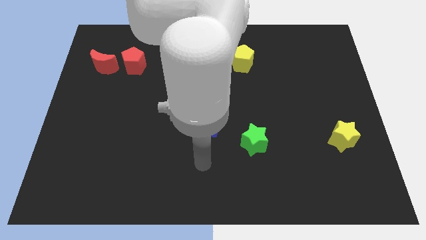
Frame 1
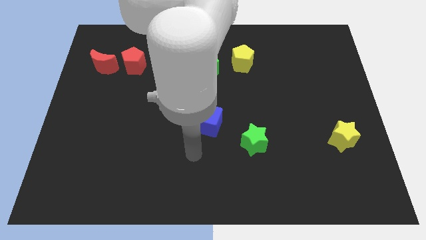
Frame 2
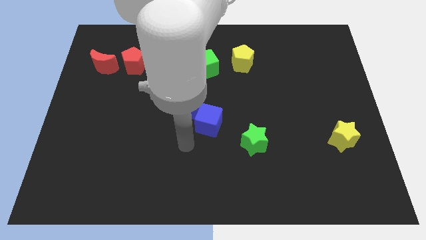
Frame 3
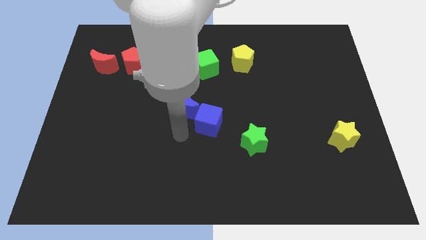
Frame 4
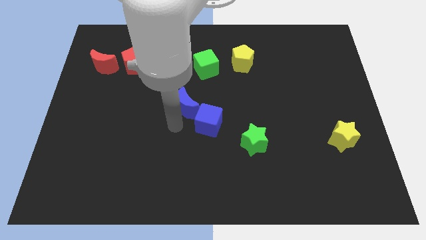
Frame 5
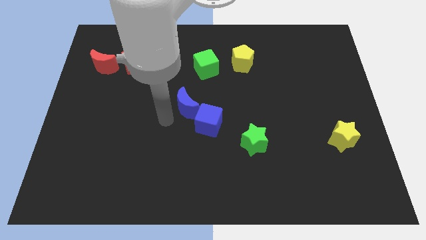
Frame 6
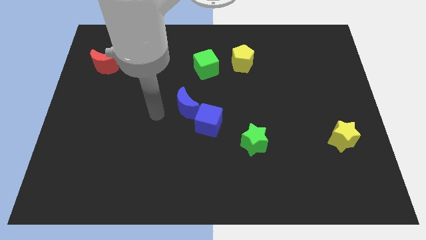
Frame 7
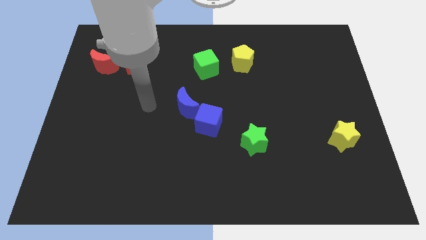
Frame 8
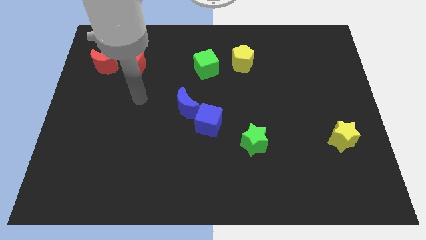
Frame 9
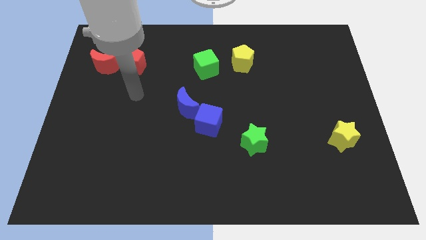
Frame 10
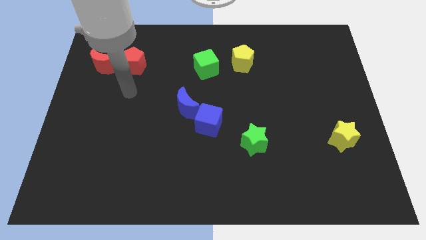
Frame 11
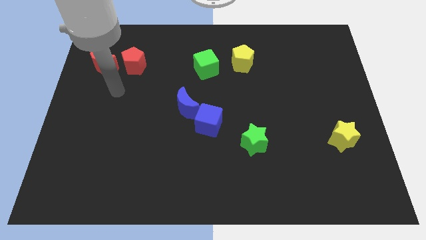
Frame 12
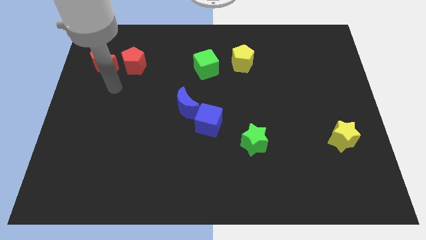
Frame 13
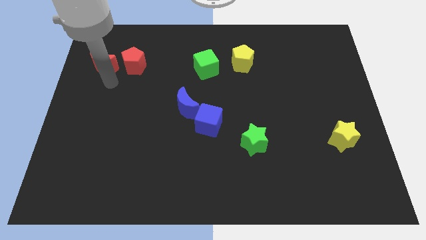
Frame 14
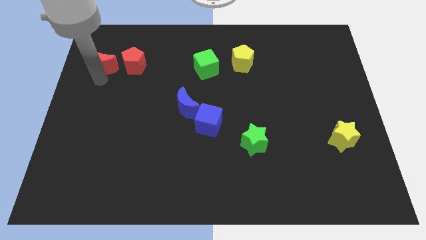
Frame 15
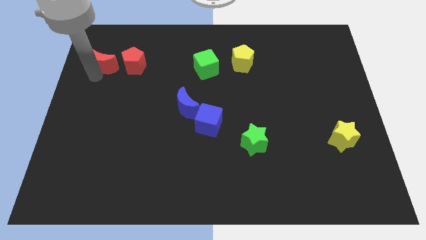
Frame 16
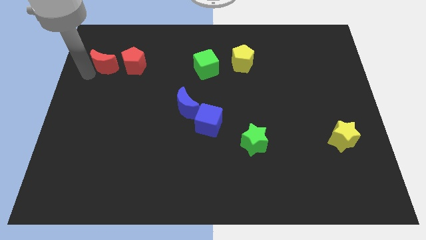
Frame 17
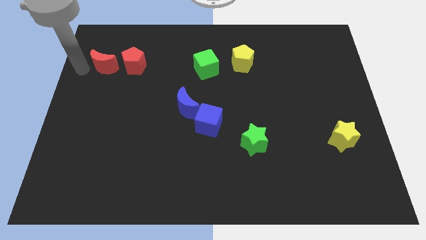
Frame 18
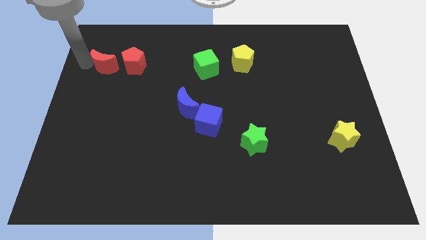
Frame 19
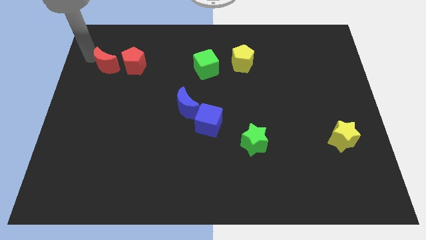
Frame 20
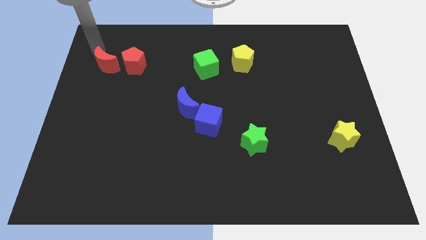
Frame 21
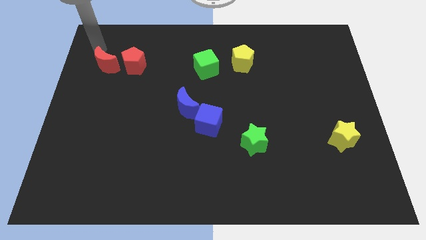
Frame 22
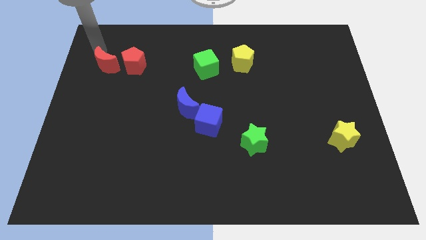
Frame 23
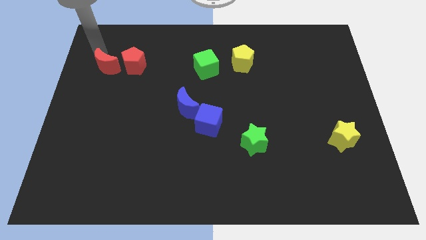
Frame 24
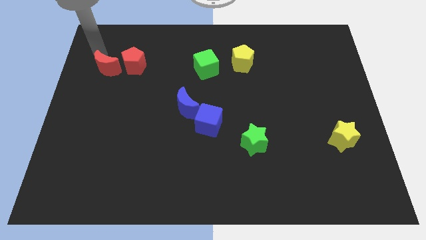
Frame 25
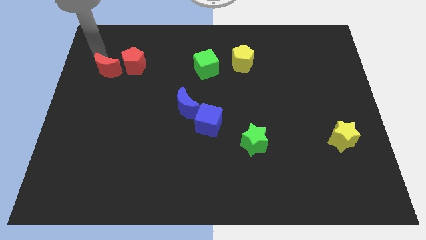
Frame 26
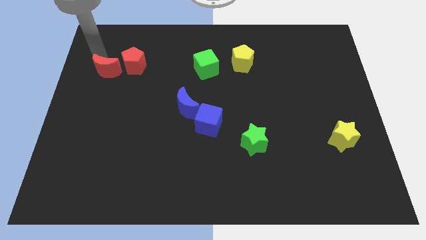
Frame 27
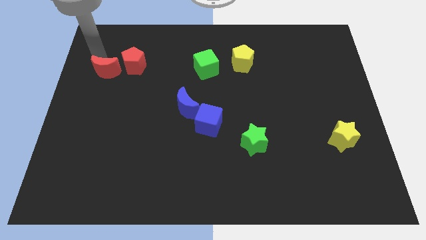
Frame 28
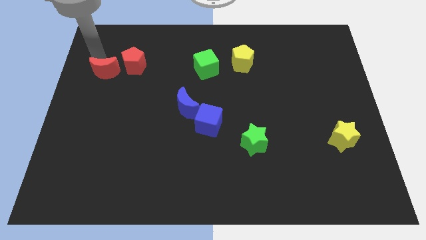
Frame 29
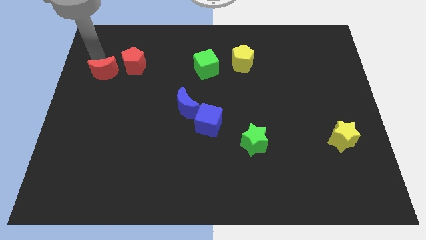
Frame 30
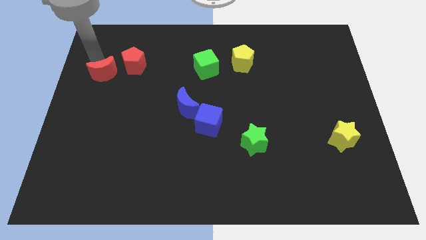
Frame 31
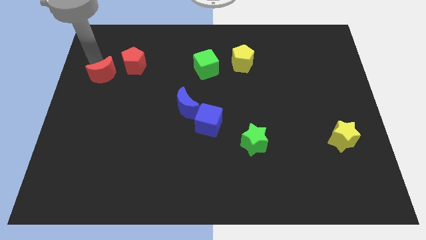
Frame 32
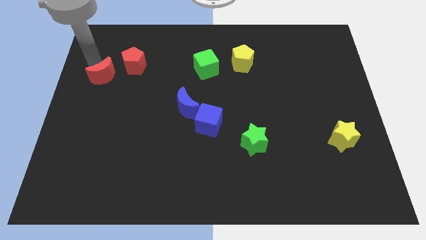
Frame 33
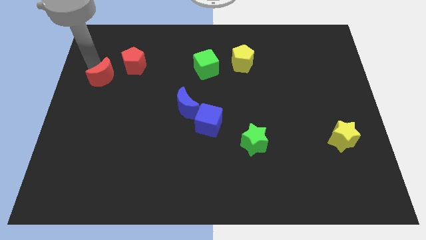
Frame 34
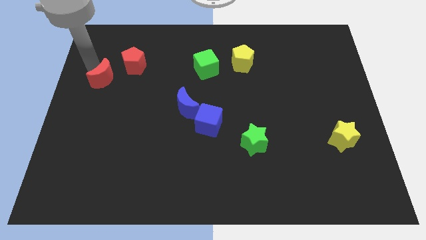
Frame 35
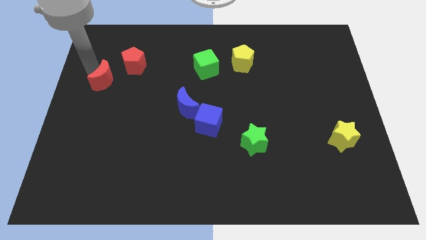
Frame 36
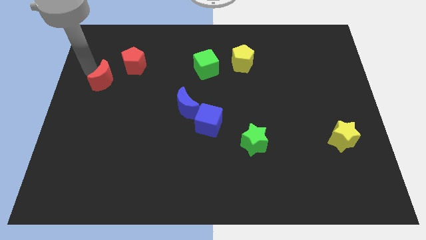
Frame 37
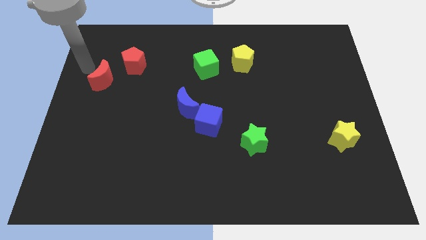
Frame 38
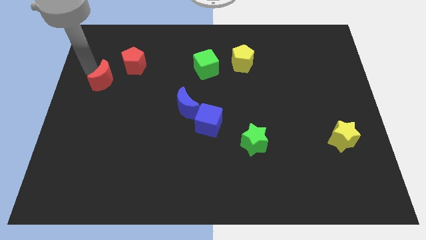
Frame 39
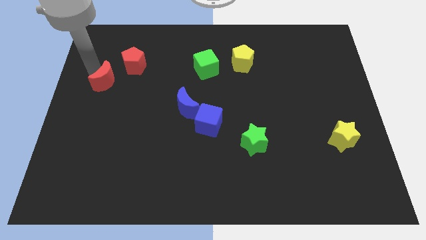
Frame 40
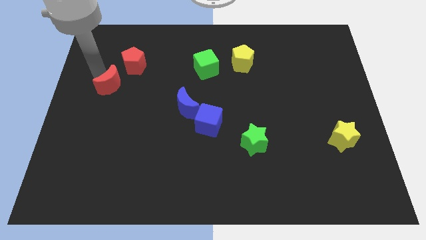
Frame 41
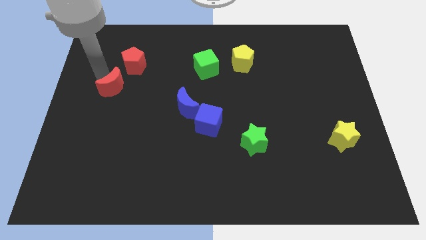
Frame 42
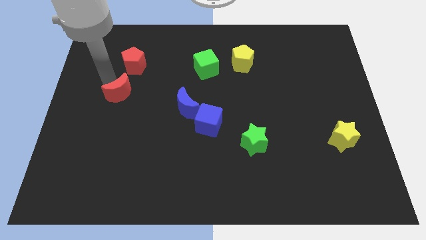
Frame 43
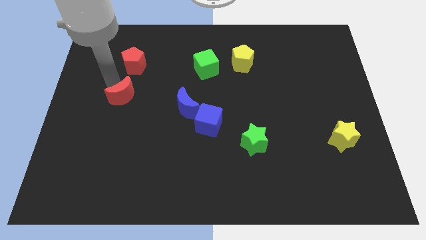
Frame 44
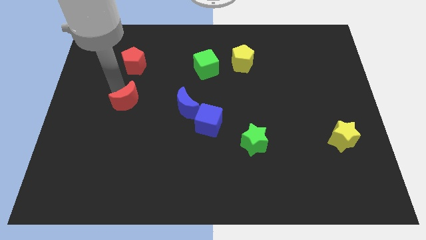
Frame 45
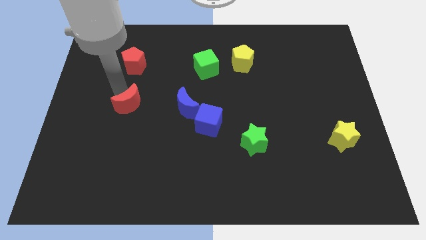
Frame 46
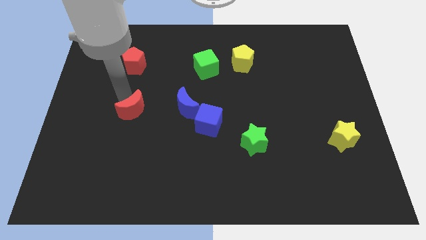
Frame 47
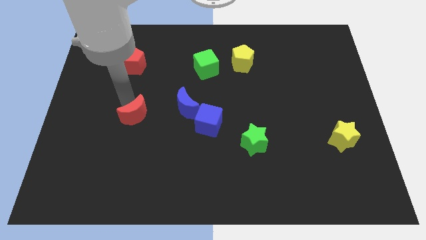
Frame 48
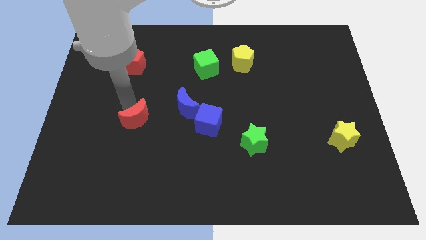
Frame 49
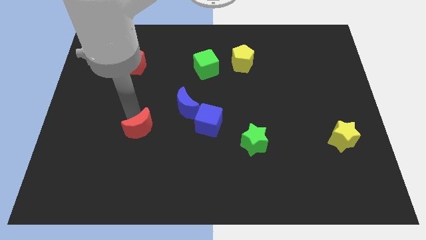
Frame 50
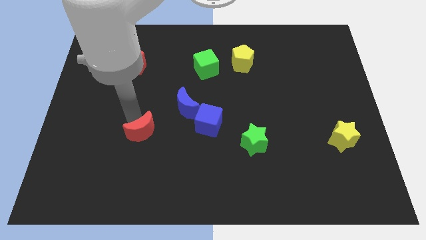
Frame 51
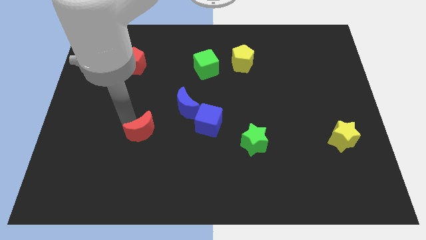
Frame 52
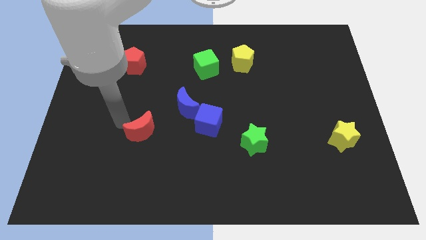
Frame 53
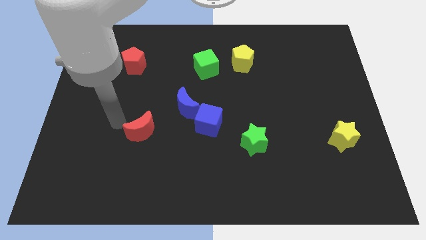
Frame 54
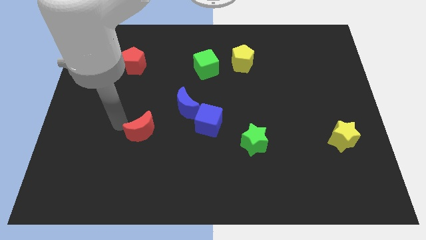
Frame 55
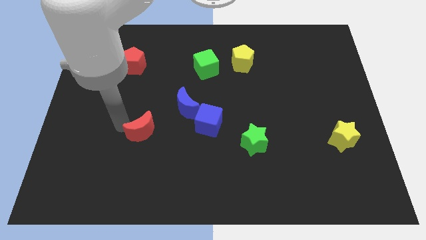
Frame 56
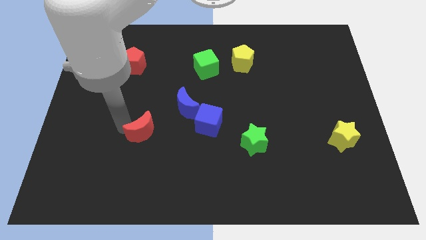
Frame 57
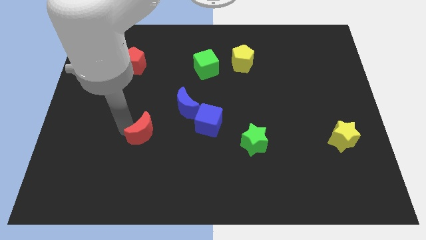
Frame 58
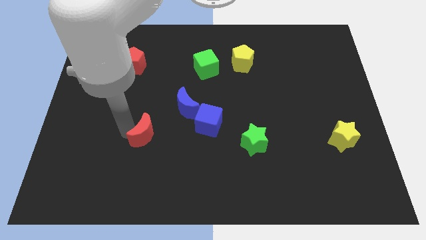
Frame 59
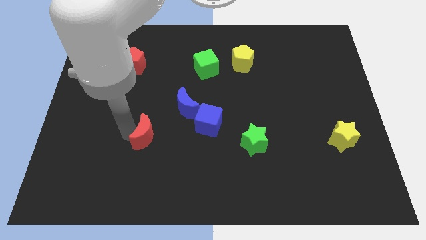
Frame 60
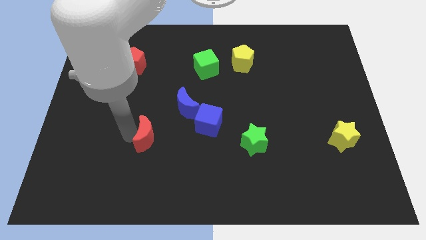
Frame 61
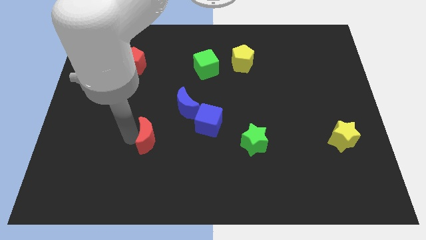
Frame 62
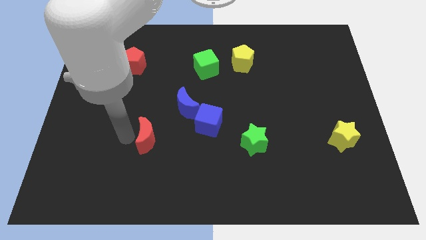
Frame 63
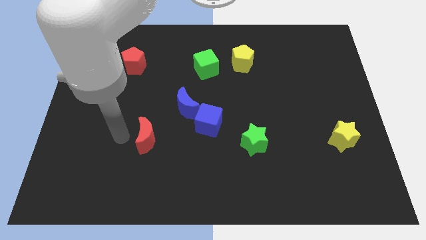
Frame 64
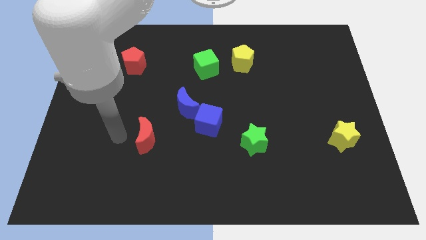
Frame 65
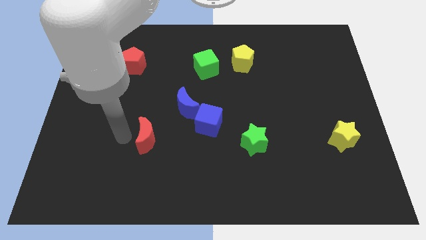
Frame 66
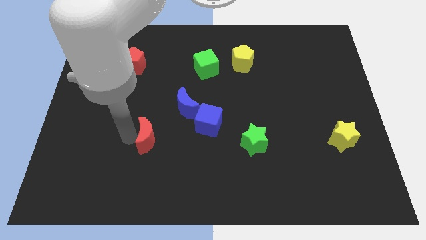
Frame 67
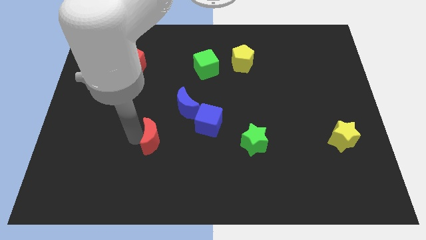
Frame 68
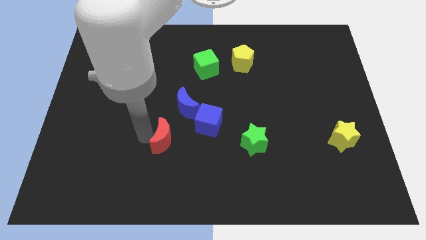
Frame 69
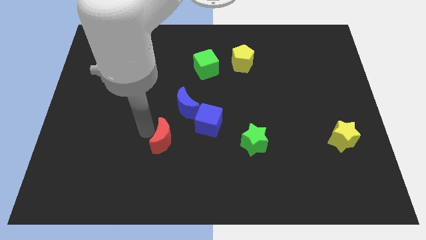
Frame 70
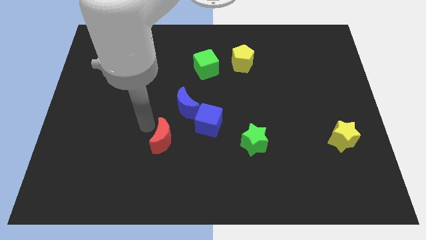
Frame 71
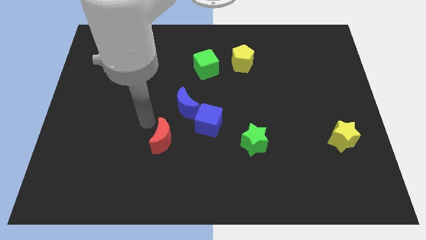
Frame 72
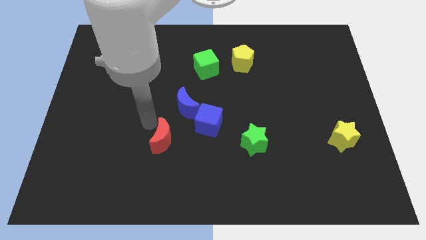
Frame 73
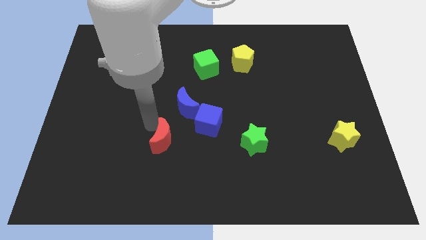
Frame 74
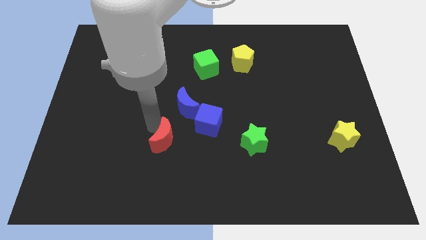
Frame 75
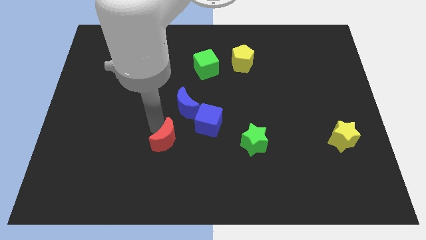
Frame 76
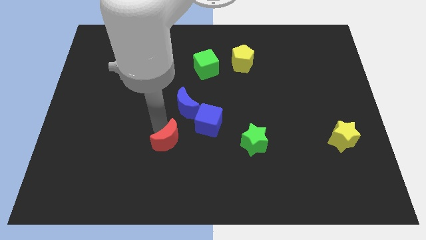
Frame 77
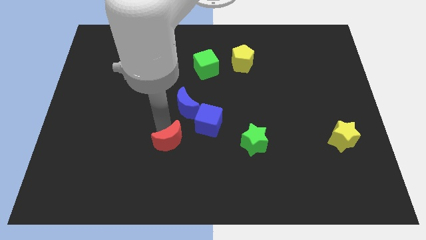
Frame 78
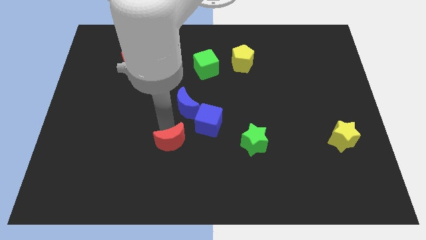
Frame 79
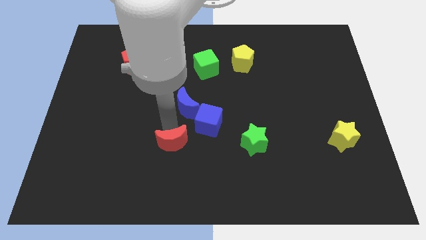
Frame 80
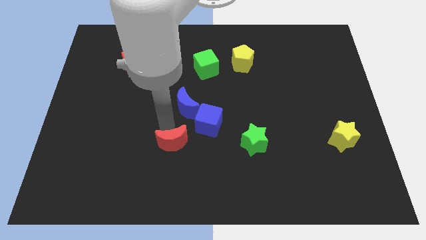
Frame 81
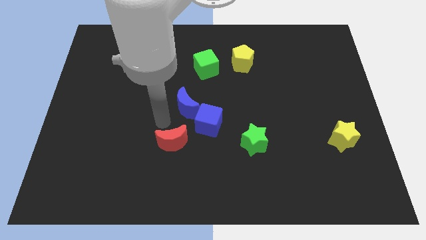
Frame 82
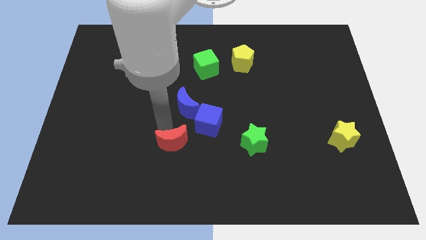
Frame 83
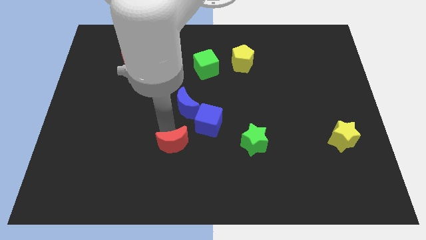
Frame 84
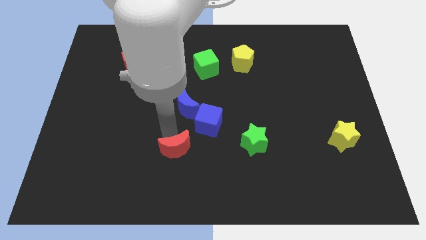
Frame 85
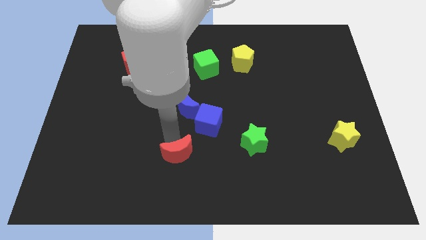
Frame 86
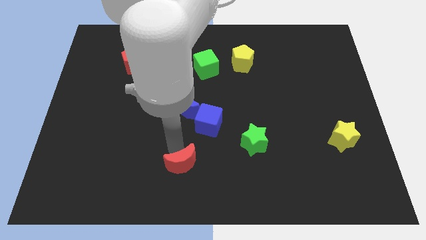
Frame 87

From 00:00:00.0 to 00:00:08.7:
push the red moon to the bottom
